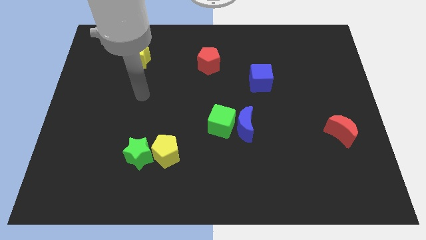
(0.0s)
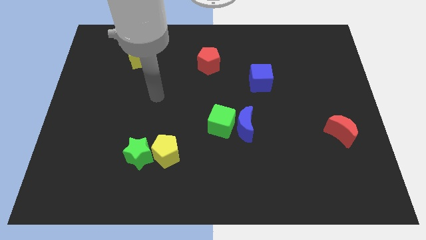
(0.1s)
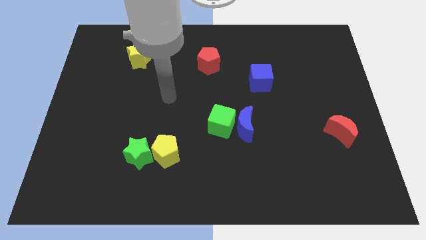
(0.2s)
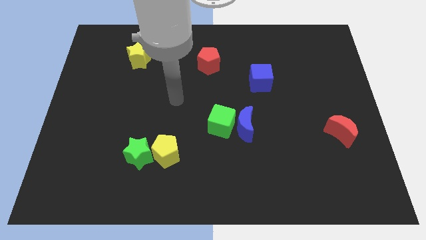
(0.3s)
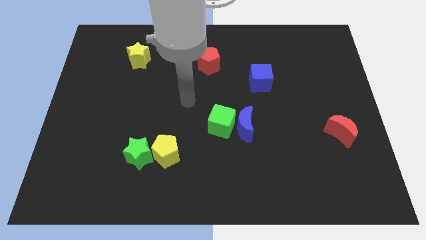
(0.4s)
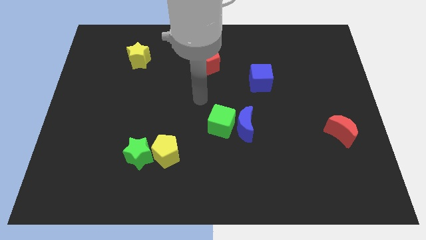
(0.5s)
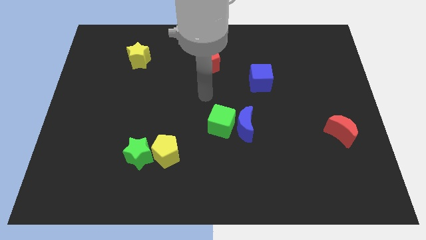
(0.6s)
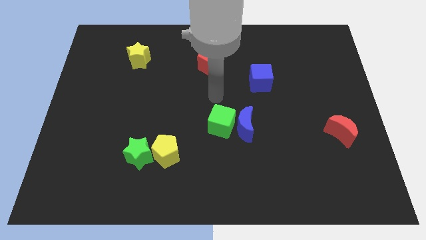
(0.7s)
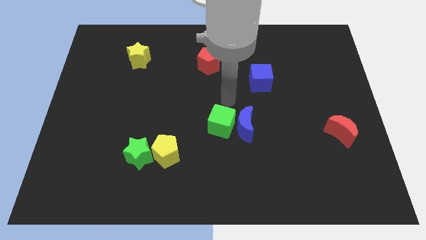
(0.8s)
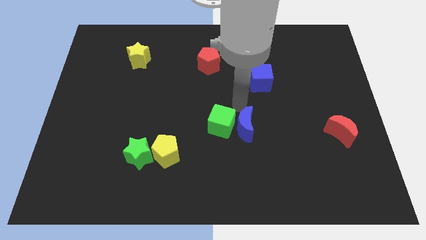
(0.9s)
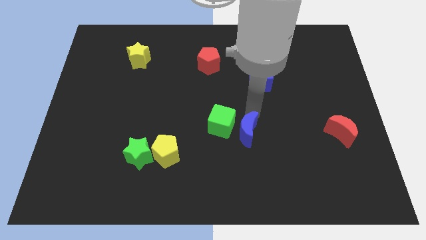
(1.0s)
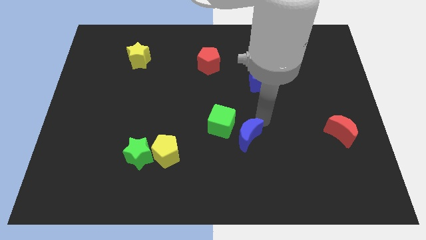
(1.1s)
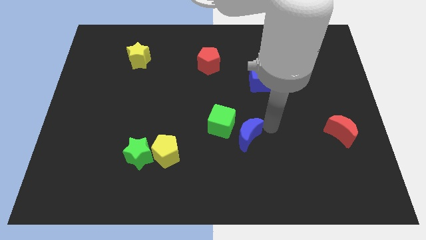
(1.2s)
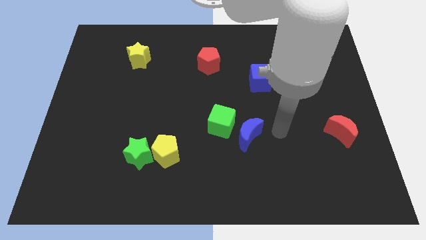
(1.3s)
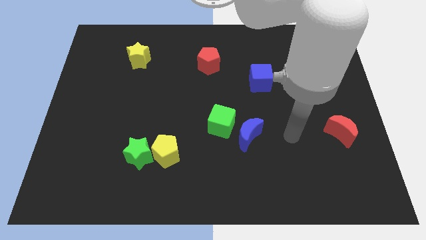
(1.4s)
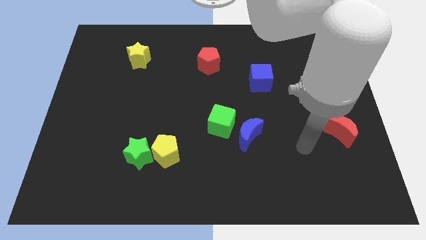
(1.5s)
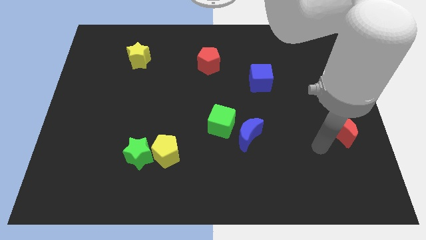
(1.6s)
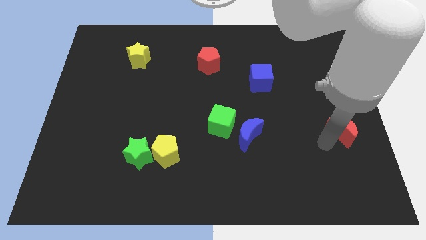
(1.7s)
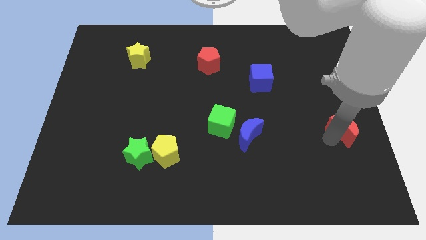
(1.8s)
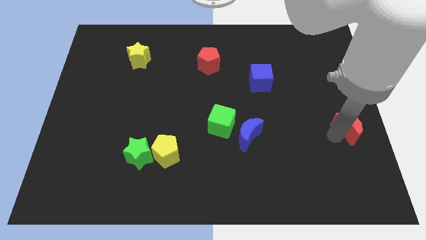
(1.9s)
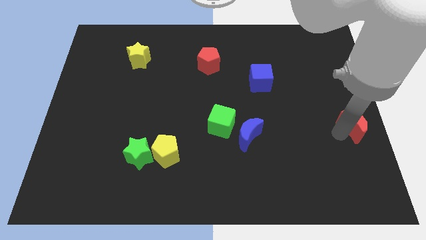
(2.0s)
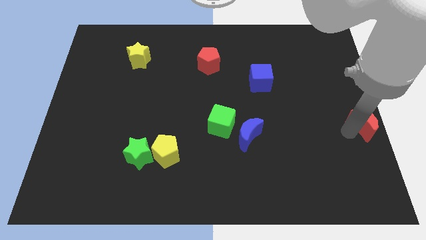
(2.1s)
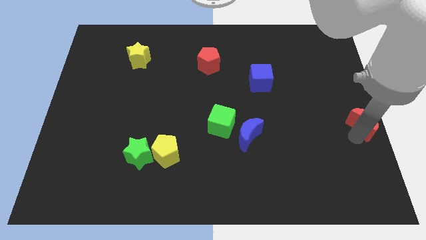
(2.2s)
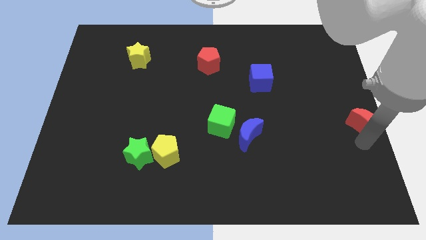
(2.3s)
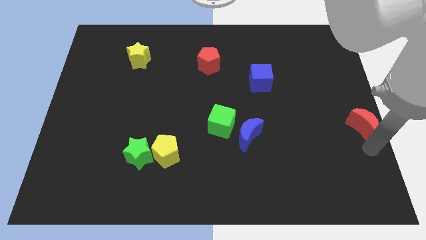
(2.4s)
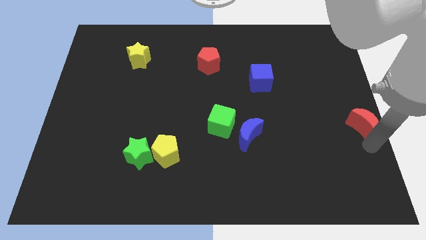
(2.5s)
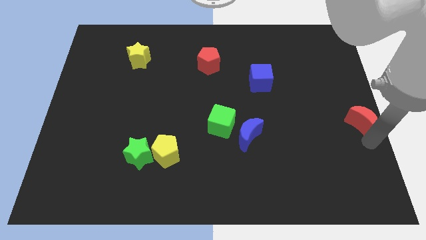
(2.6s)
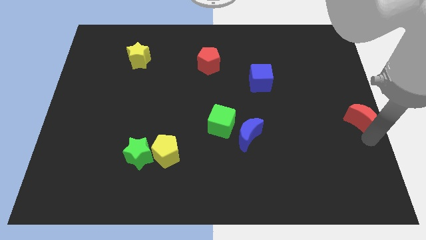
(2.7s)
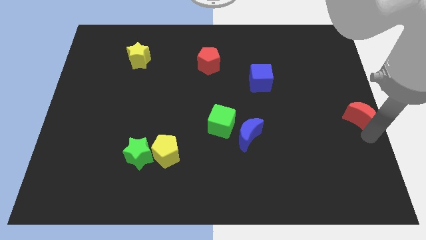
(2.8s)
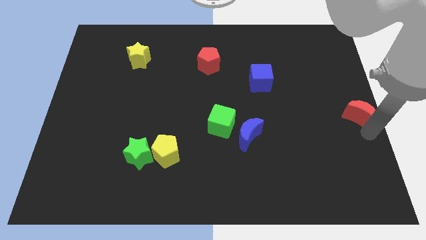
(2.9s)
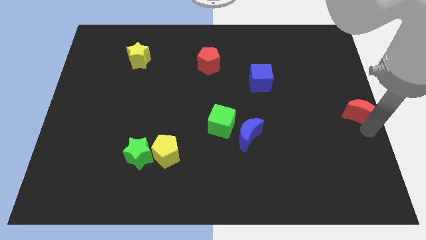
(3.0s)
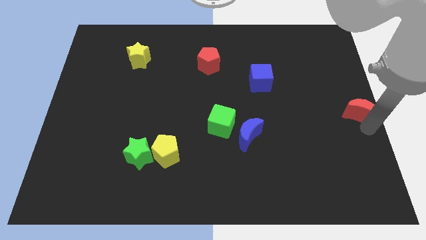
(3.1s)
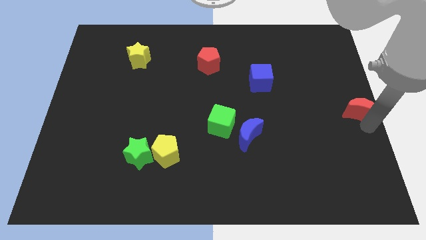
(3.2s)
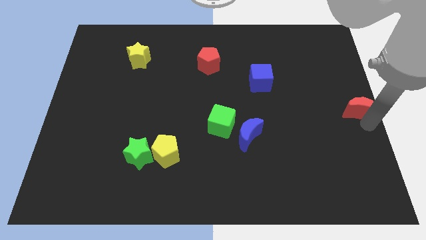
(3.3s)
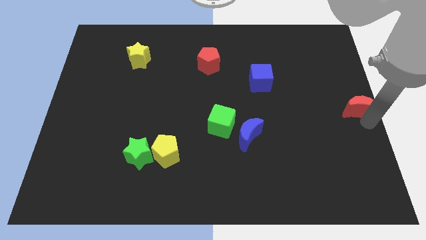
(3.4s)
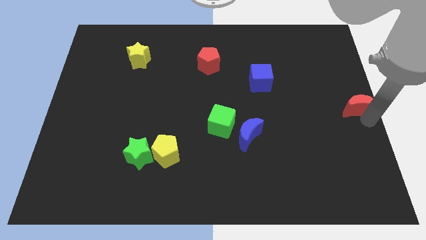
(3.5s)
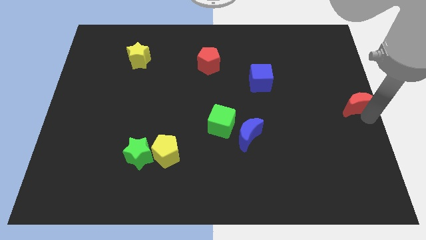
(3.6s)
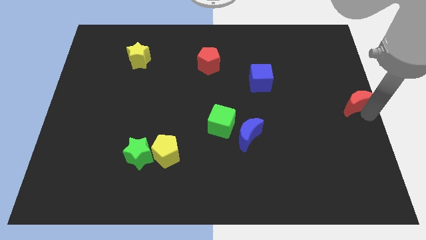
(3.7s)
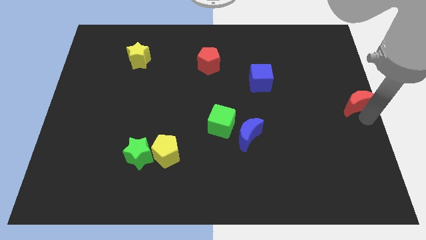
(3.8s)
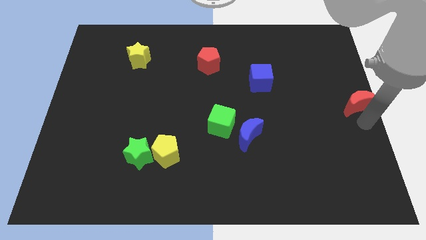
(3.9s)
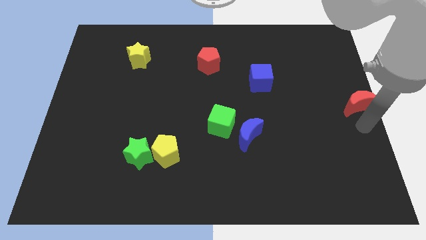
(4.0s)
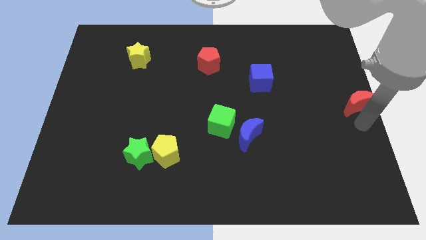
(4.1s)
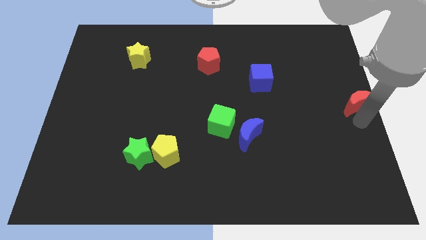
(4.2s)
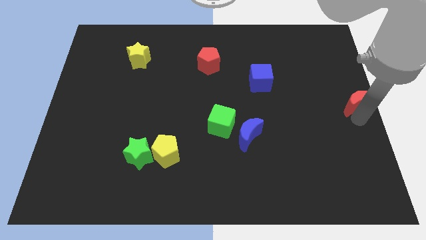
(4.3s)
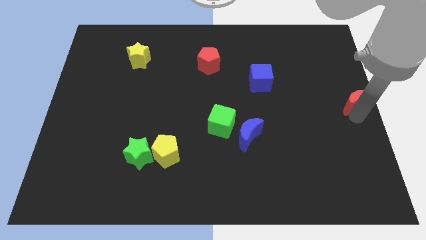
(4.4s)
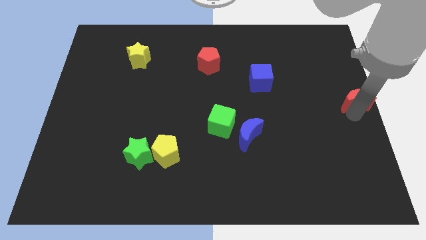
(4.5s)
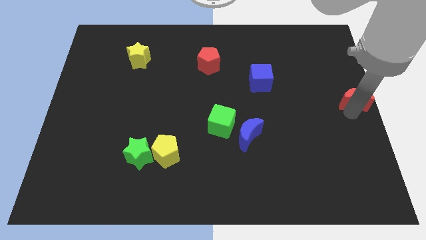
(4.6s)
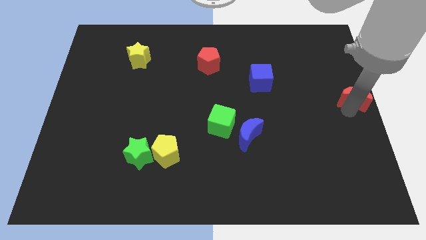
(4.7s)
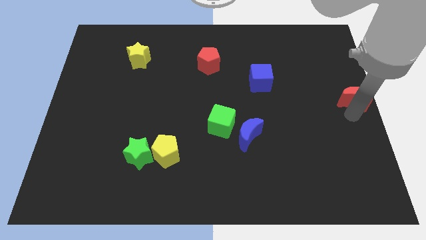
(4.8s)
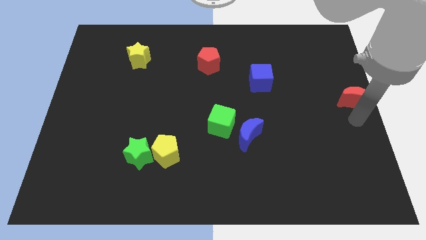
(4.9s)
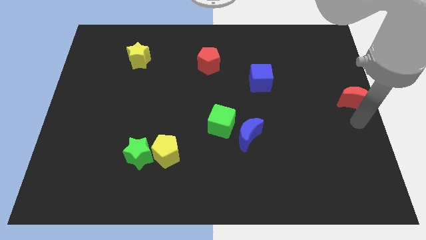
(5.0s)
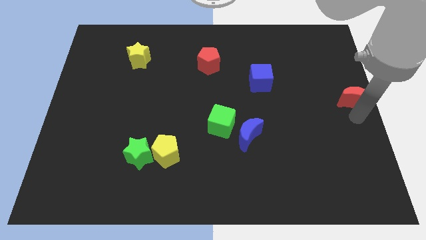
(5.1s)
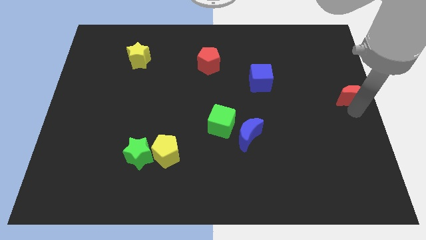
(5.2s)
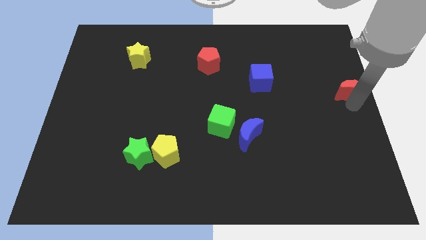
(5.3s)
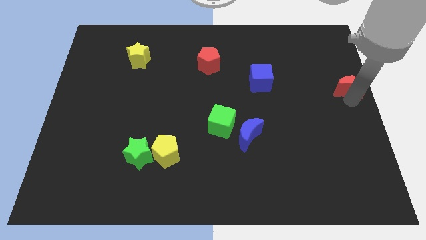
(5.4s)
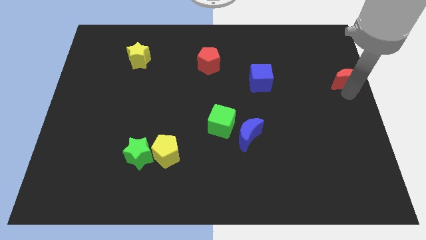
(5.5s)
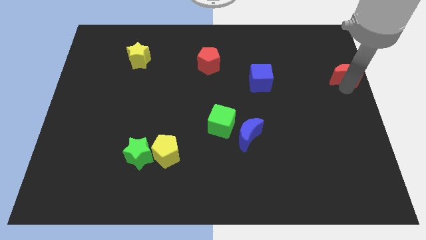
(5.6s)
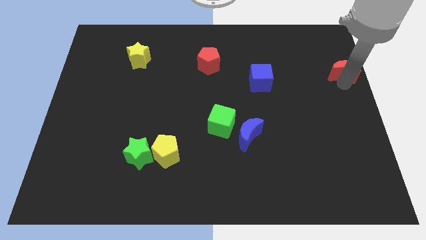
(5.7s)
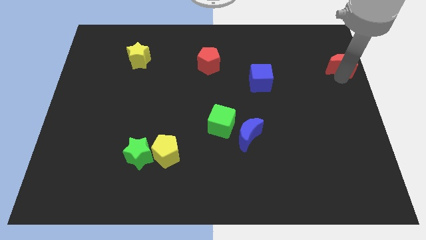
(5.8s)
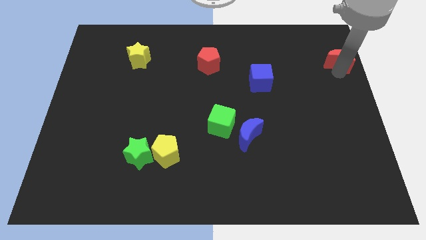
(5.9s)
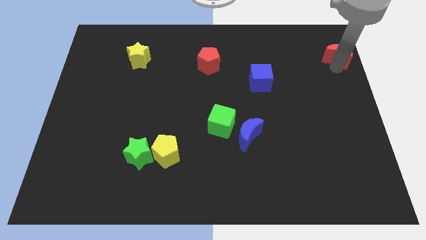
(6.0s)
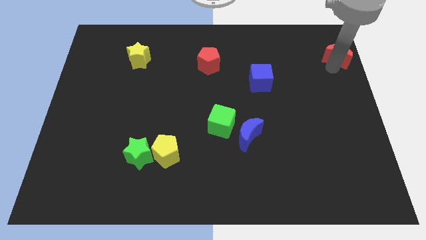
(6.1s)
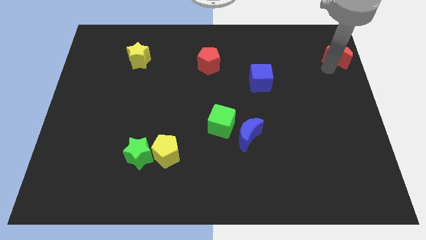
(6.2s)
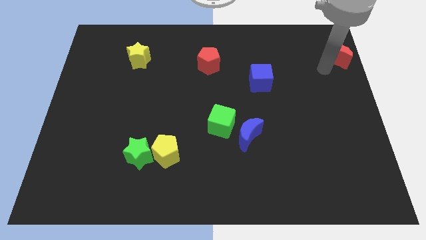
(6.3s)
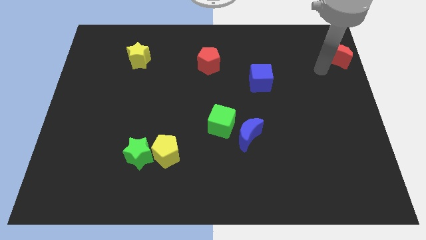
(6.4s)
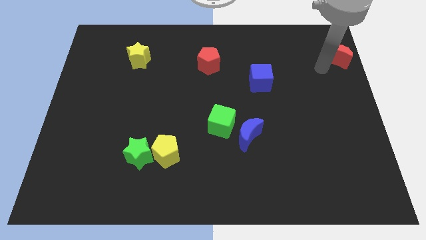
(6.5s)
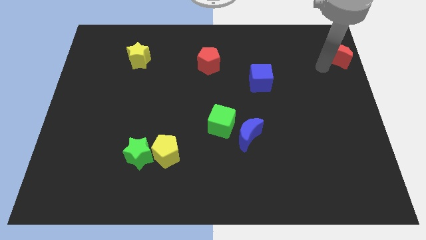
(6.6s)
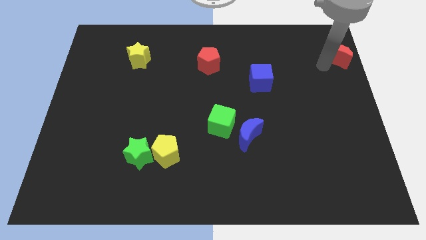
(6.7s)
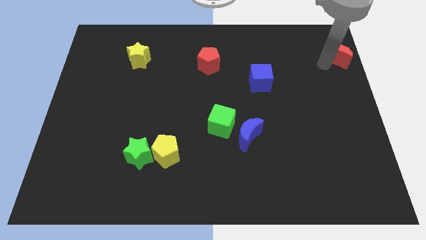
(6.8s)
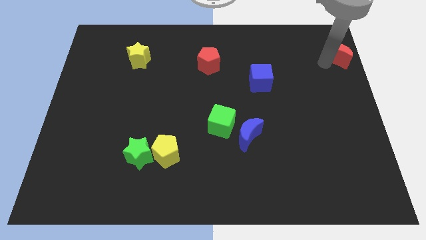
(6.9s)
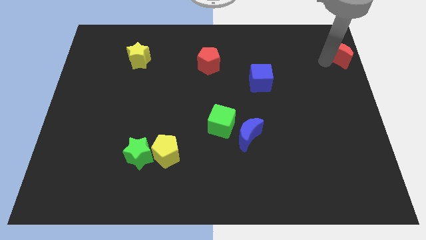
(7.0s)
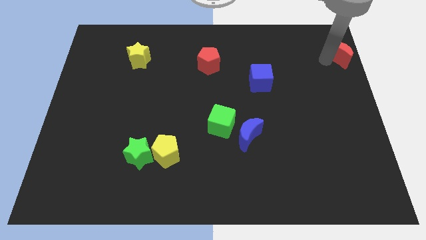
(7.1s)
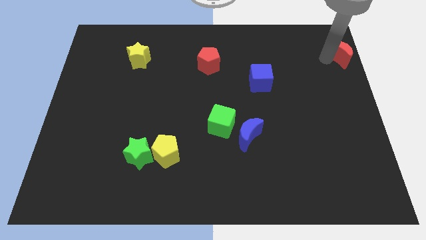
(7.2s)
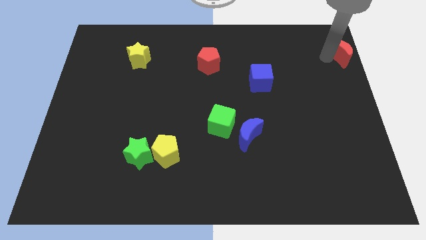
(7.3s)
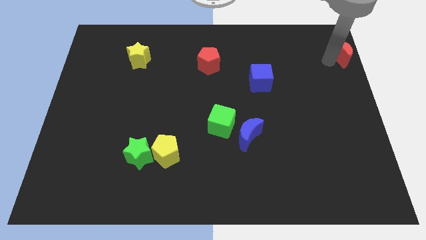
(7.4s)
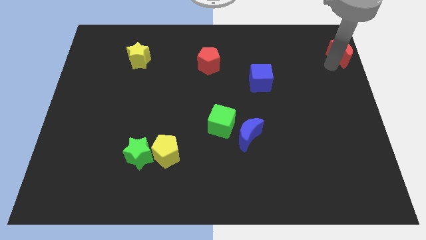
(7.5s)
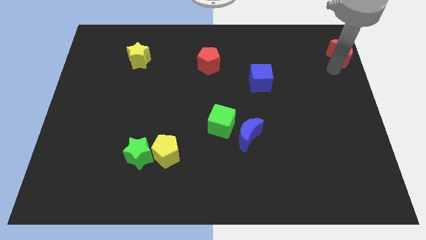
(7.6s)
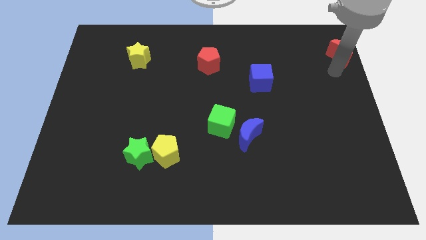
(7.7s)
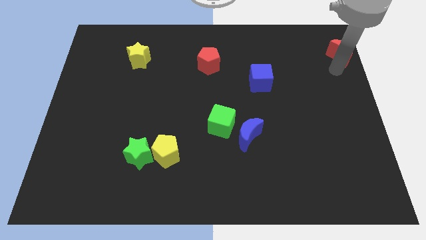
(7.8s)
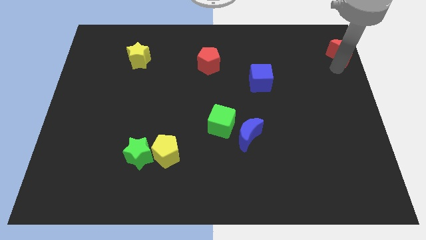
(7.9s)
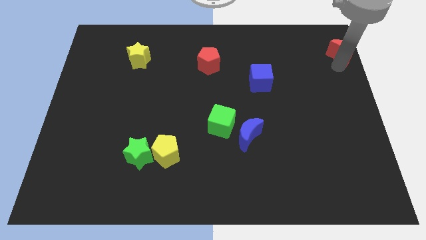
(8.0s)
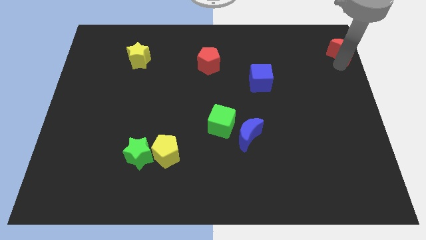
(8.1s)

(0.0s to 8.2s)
move the red moon to the upper right corner
